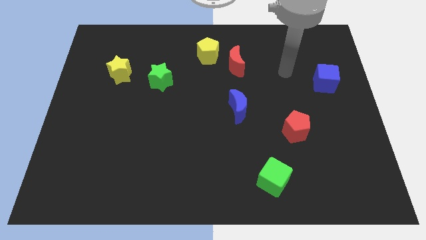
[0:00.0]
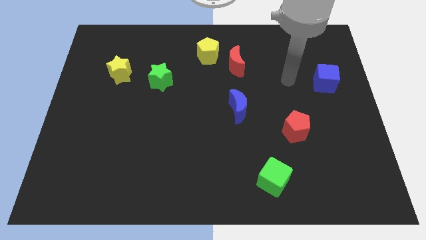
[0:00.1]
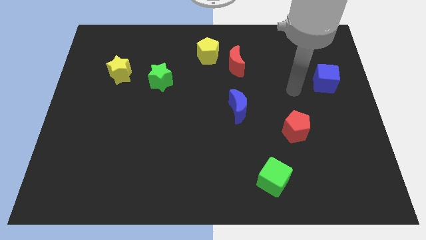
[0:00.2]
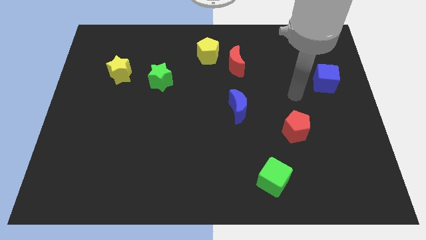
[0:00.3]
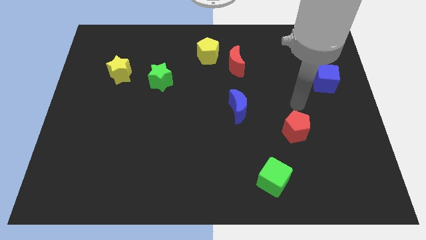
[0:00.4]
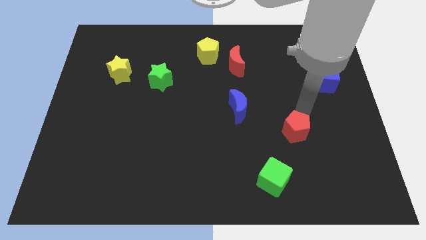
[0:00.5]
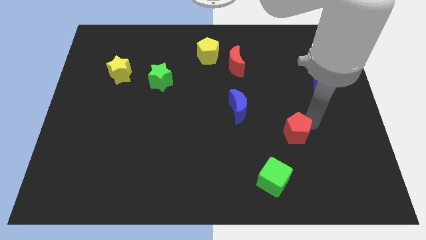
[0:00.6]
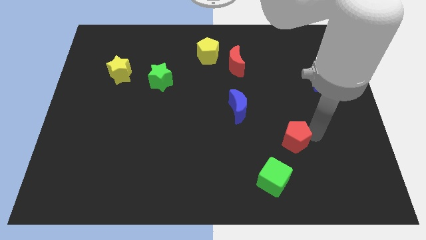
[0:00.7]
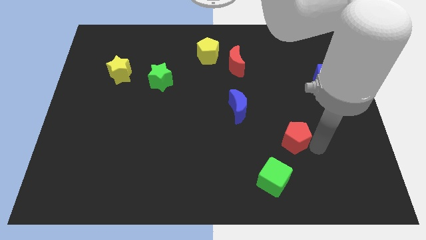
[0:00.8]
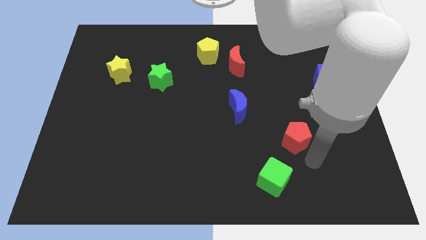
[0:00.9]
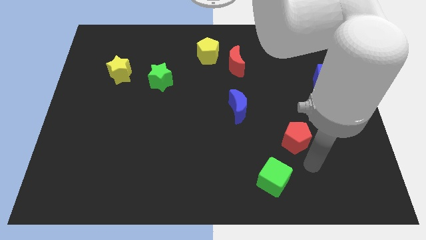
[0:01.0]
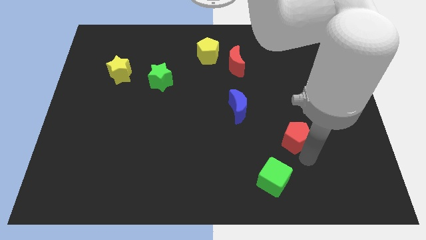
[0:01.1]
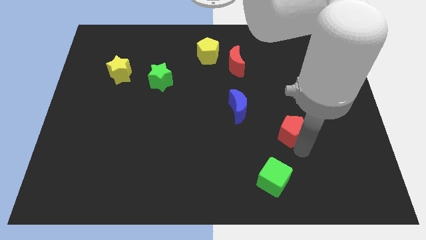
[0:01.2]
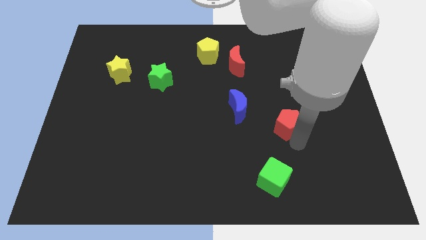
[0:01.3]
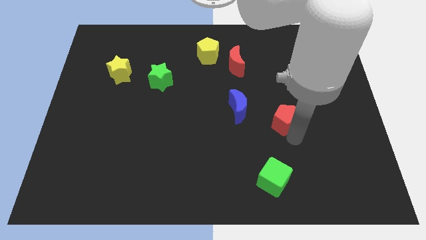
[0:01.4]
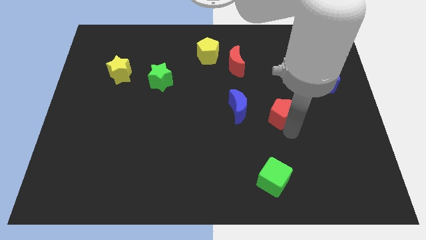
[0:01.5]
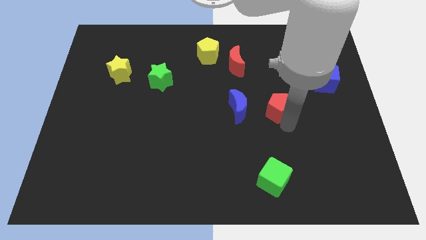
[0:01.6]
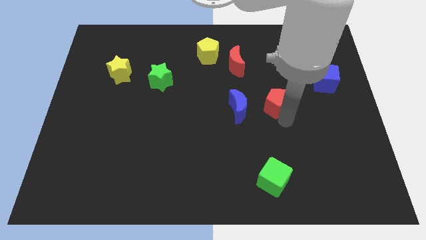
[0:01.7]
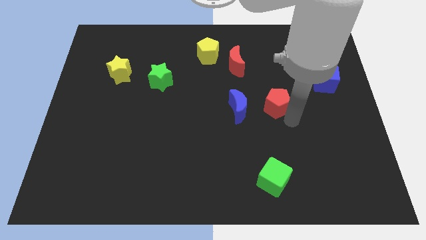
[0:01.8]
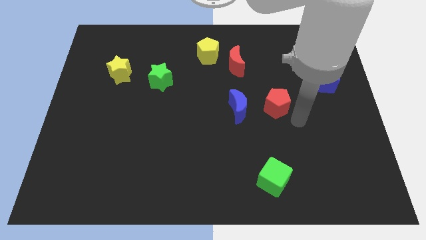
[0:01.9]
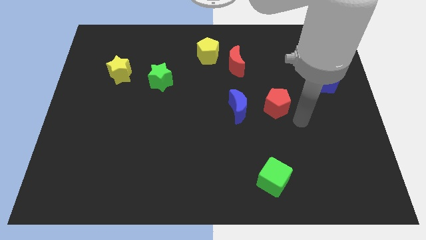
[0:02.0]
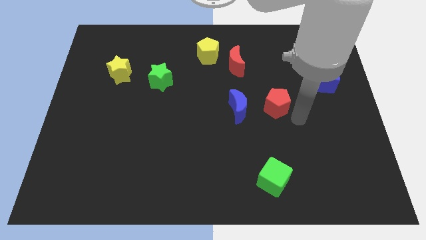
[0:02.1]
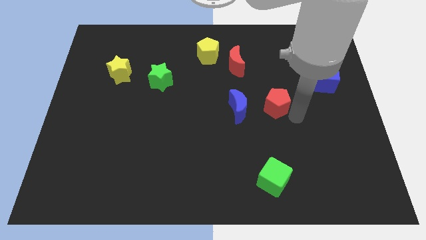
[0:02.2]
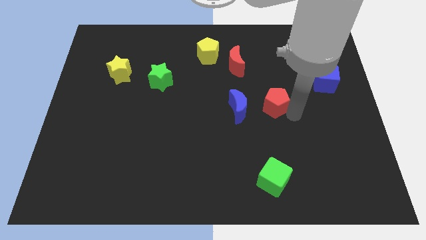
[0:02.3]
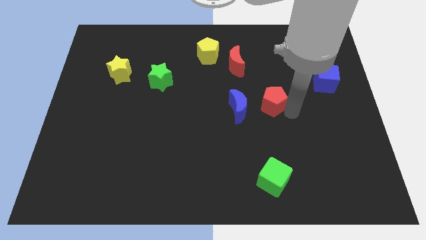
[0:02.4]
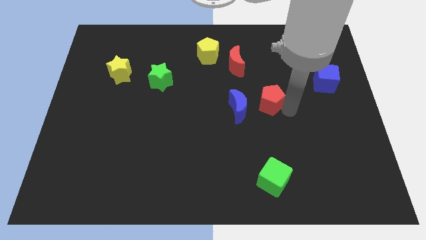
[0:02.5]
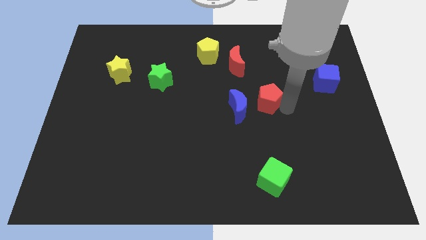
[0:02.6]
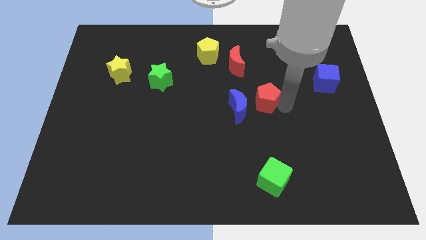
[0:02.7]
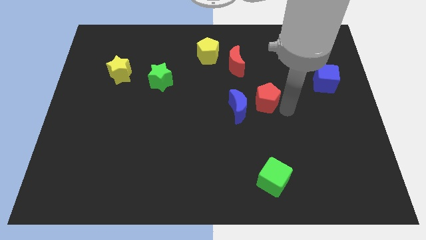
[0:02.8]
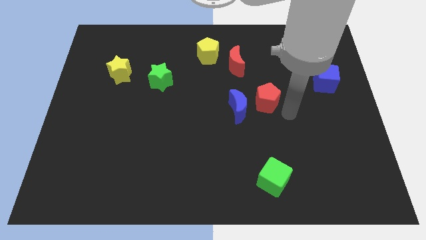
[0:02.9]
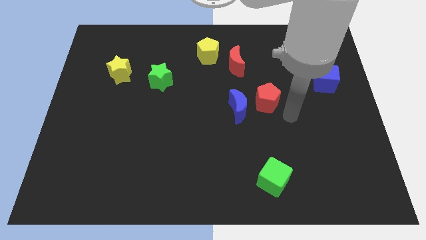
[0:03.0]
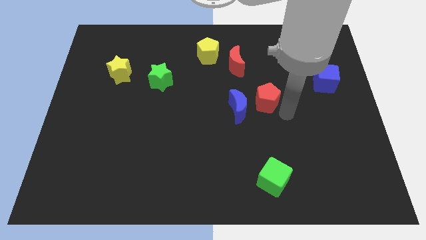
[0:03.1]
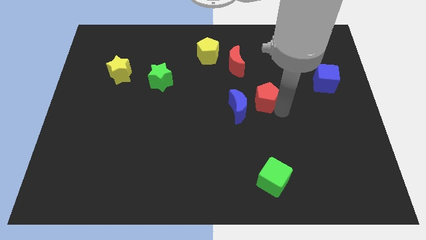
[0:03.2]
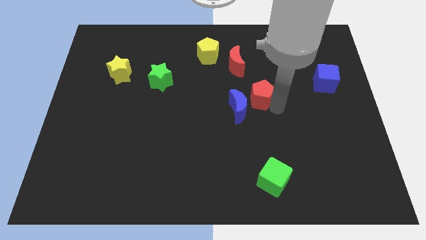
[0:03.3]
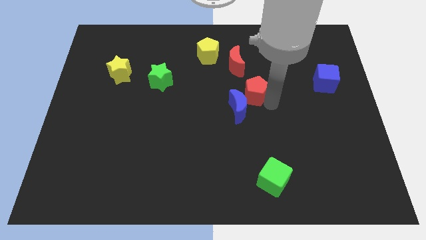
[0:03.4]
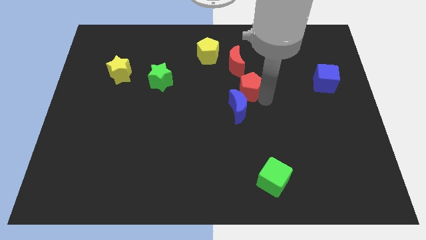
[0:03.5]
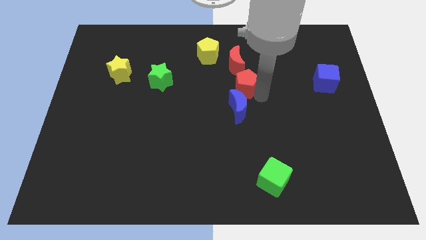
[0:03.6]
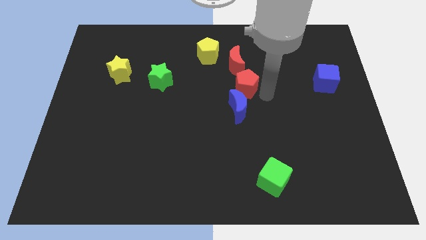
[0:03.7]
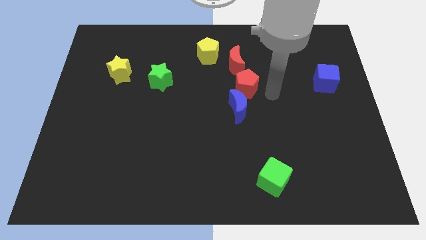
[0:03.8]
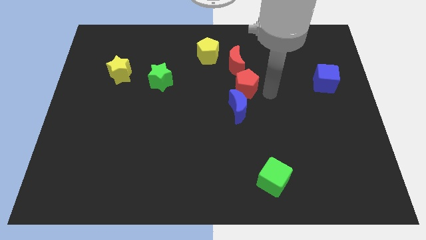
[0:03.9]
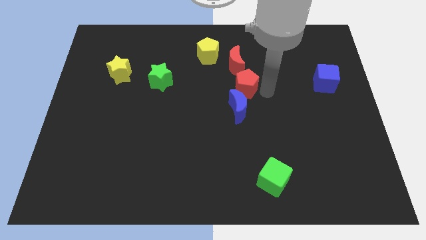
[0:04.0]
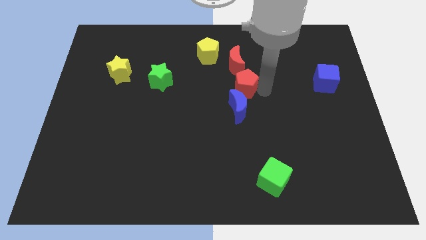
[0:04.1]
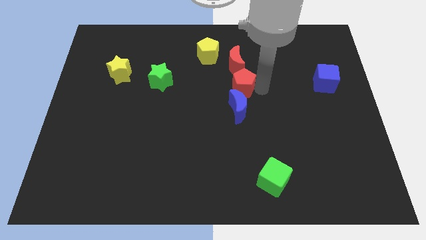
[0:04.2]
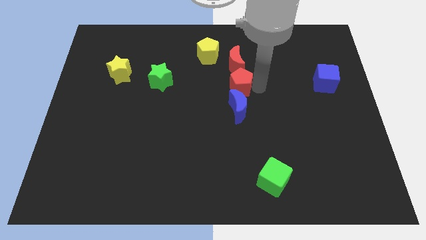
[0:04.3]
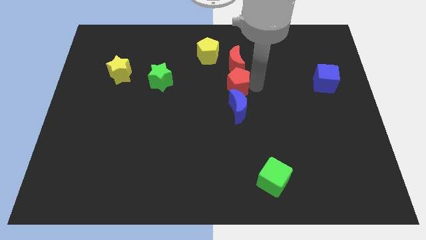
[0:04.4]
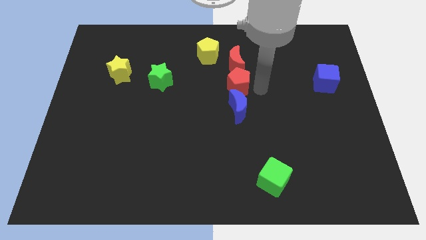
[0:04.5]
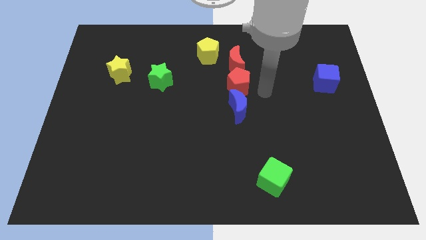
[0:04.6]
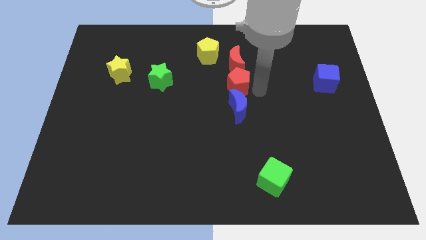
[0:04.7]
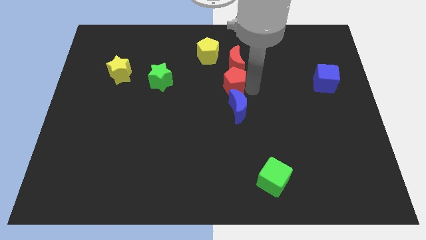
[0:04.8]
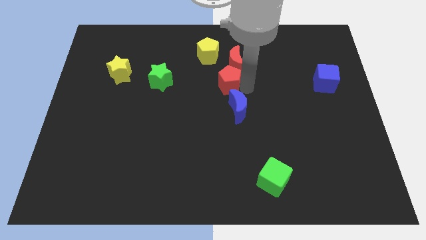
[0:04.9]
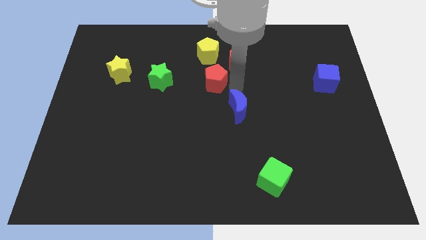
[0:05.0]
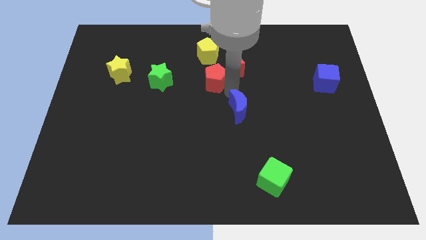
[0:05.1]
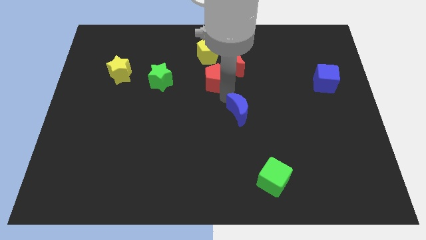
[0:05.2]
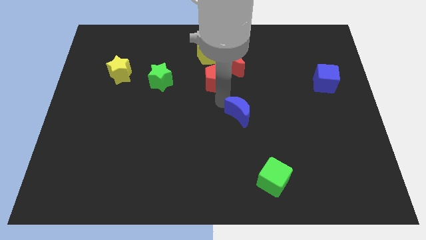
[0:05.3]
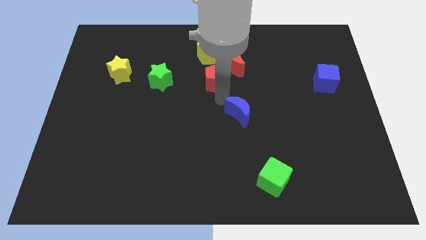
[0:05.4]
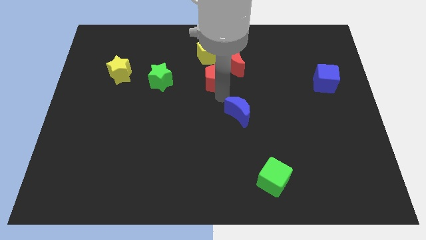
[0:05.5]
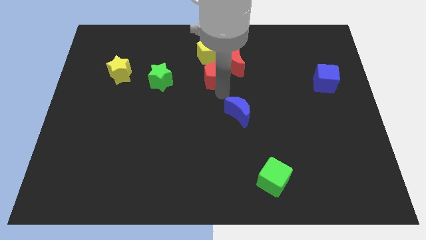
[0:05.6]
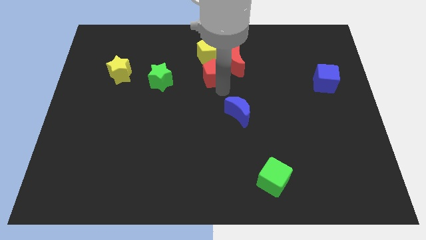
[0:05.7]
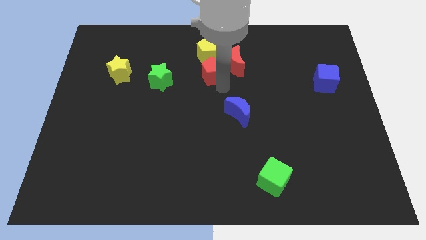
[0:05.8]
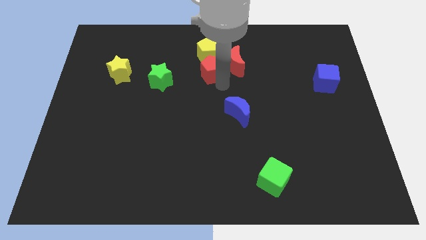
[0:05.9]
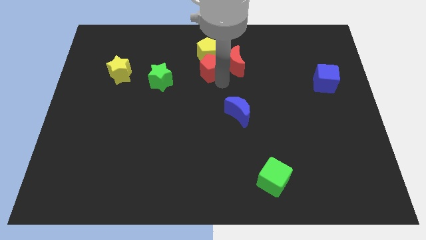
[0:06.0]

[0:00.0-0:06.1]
slide the red pentagon next to the yellow pentagon

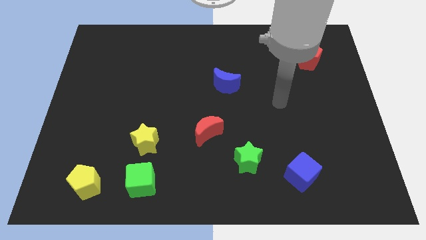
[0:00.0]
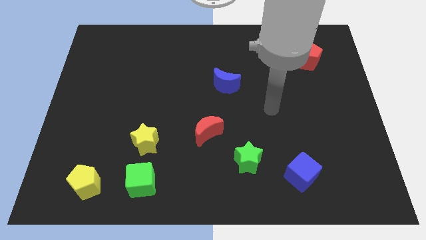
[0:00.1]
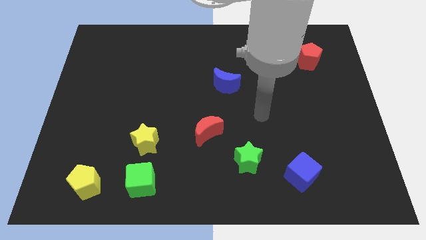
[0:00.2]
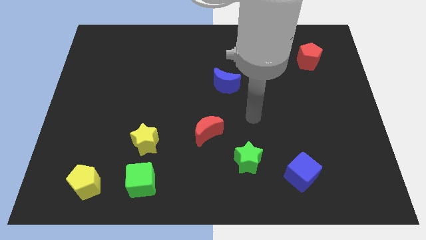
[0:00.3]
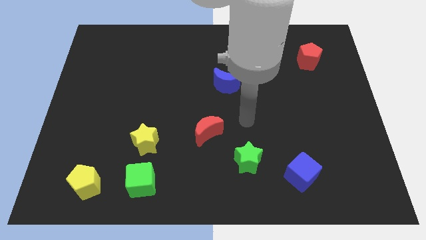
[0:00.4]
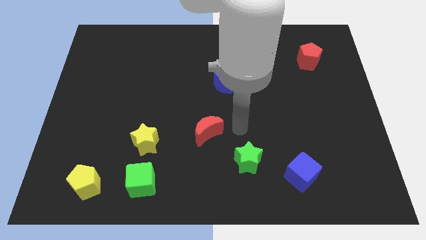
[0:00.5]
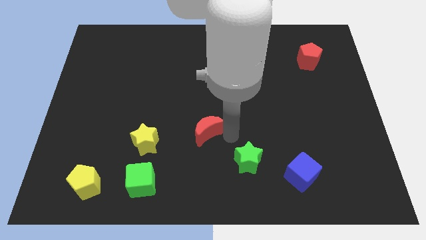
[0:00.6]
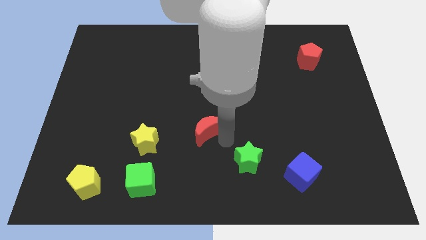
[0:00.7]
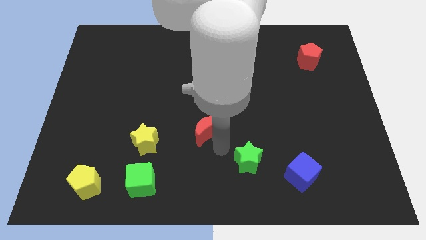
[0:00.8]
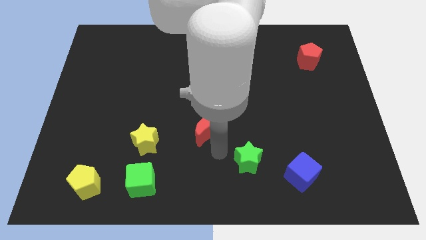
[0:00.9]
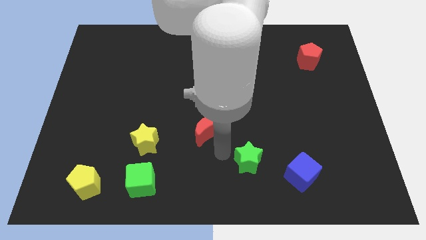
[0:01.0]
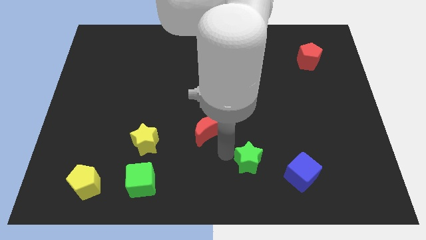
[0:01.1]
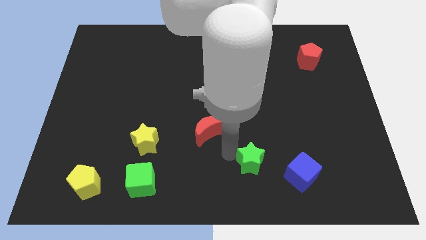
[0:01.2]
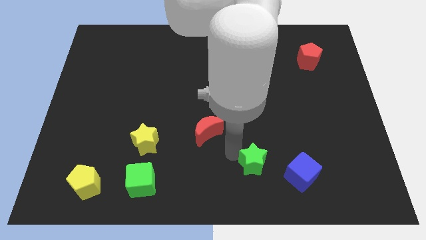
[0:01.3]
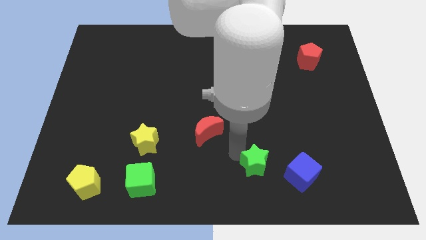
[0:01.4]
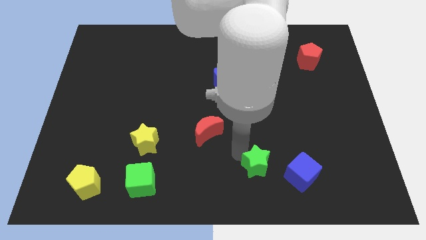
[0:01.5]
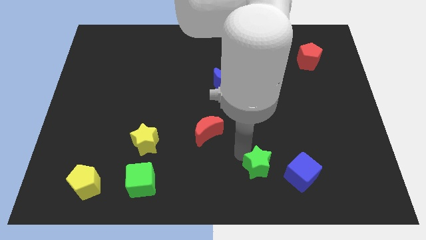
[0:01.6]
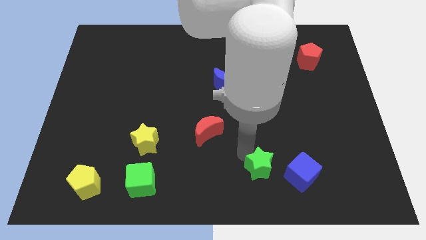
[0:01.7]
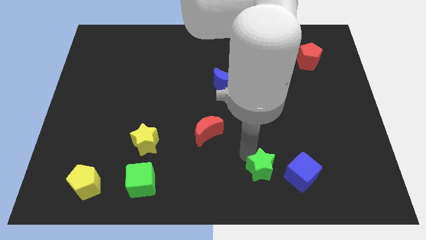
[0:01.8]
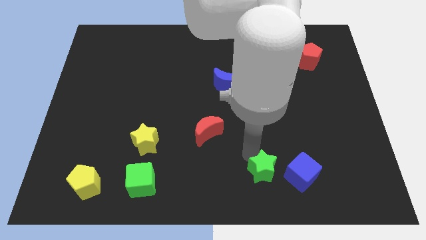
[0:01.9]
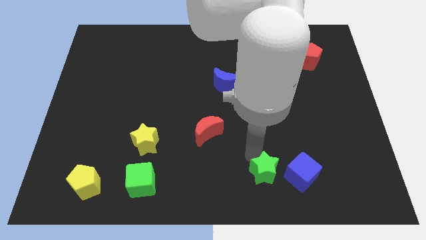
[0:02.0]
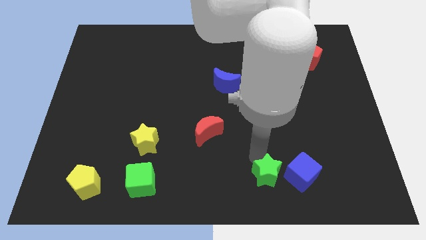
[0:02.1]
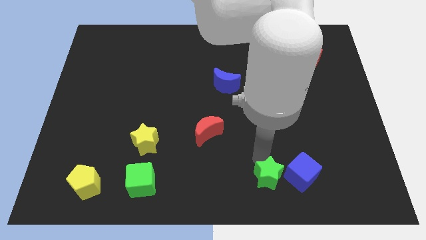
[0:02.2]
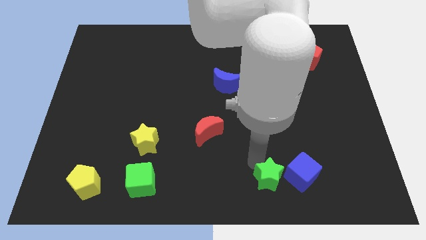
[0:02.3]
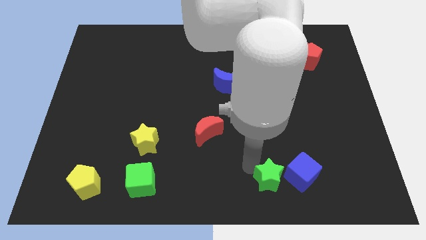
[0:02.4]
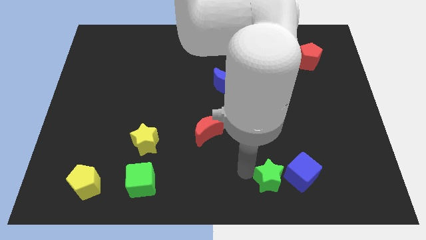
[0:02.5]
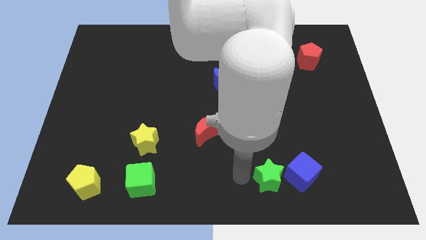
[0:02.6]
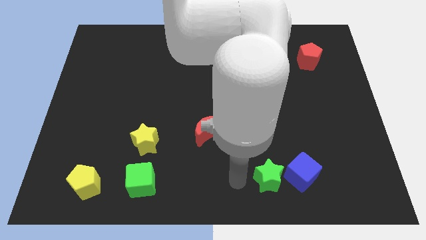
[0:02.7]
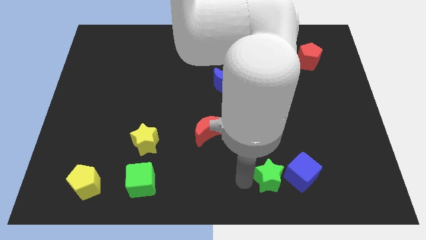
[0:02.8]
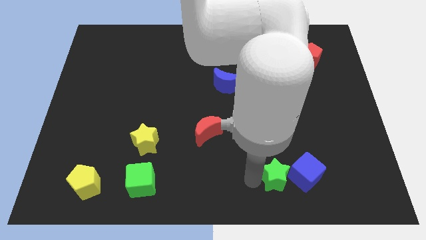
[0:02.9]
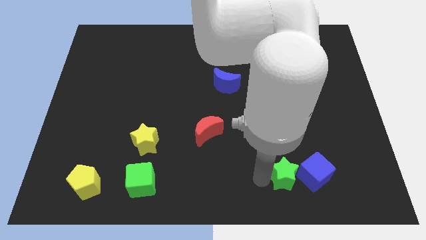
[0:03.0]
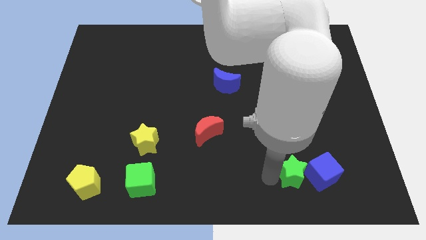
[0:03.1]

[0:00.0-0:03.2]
slide the green star to the blue cube
